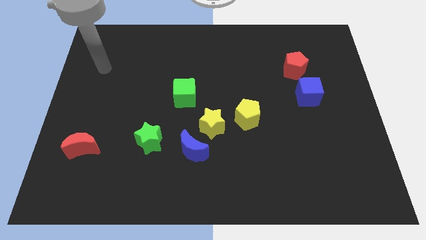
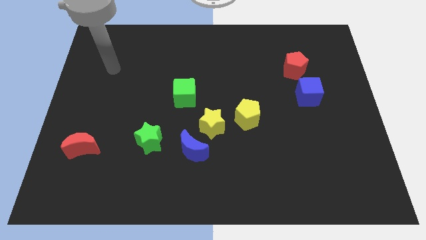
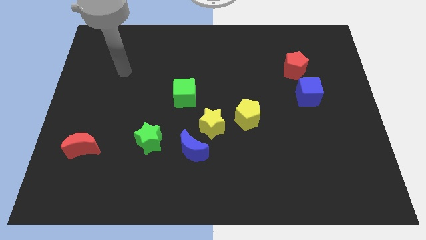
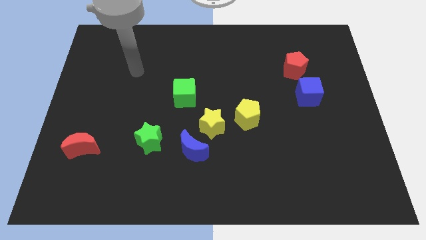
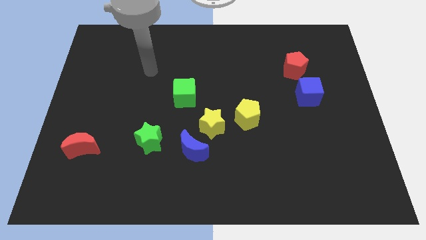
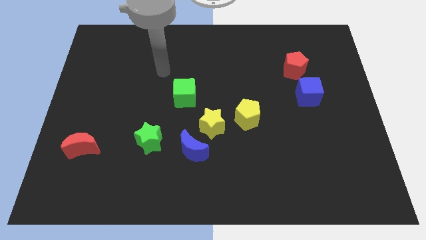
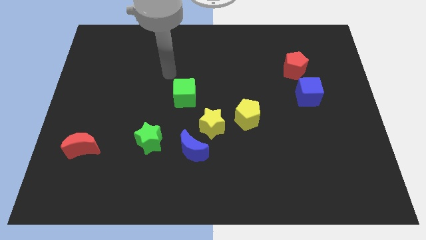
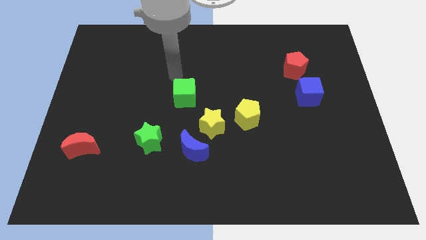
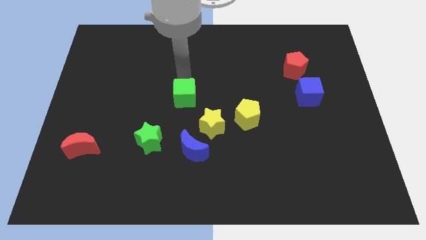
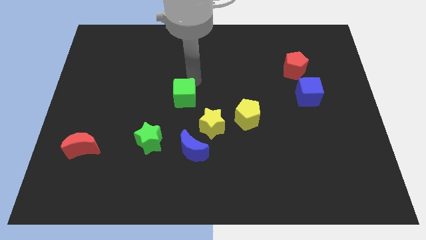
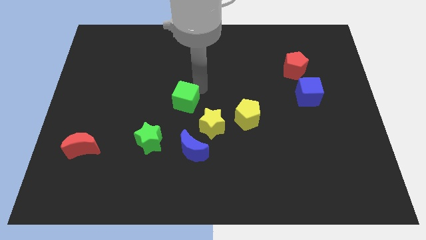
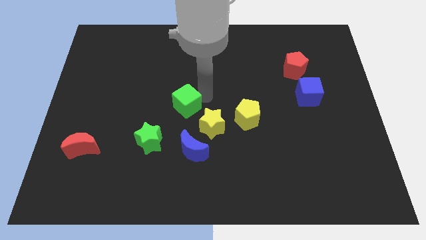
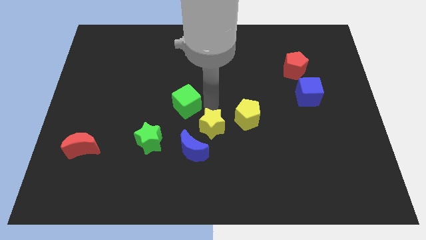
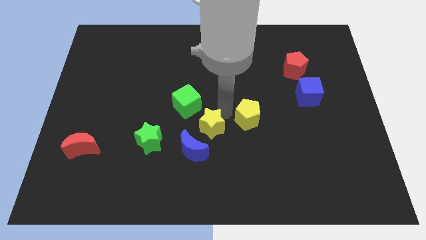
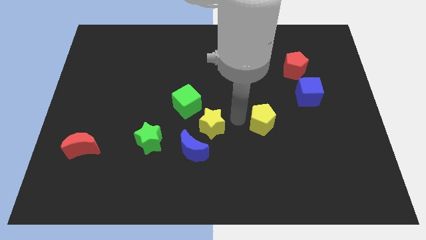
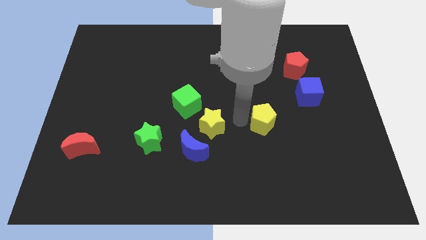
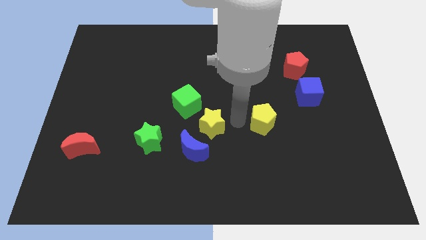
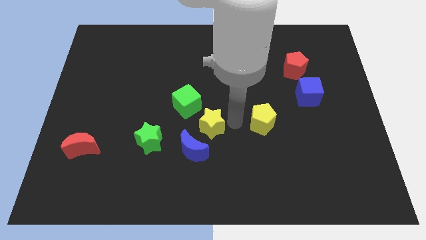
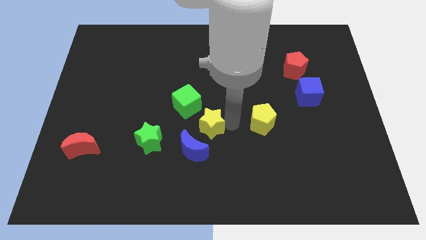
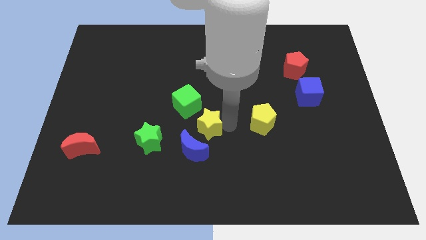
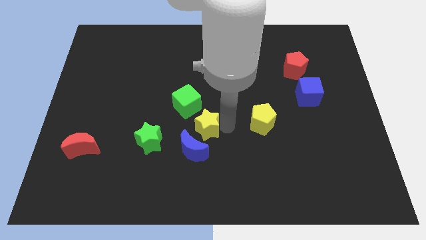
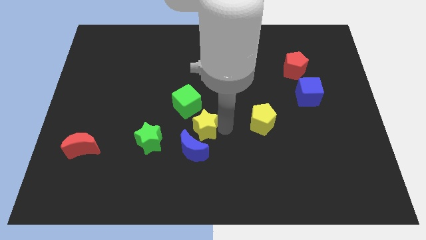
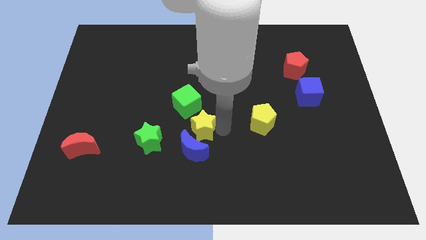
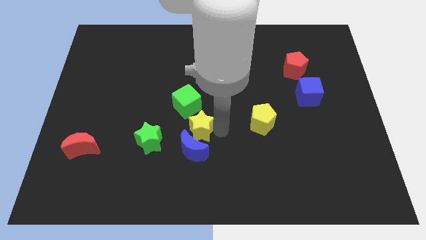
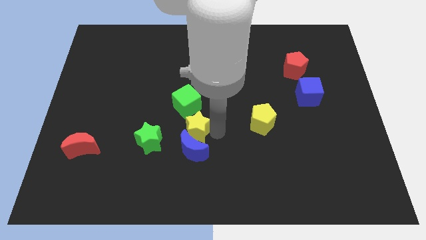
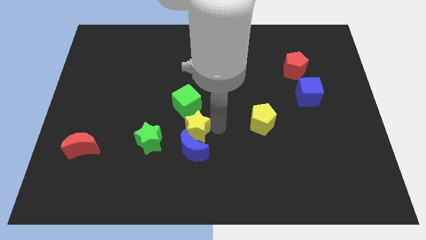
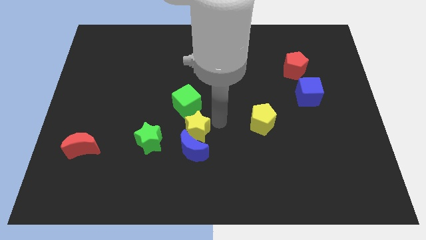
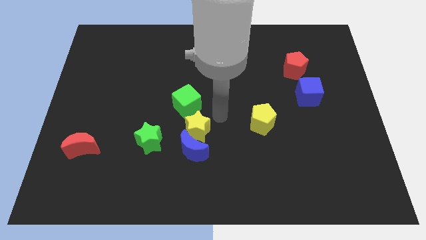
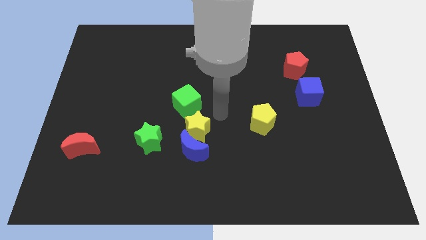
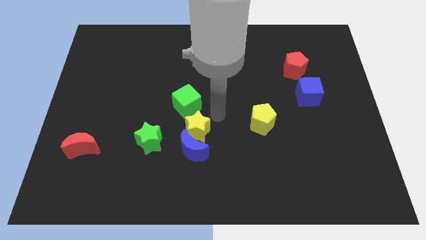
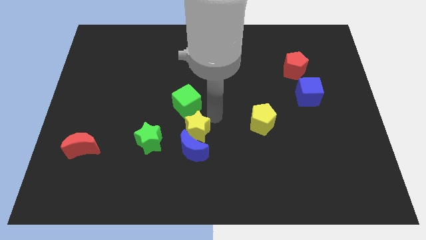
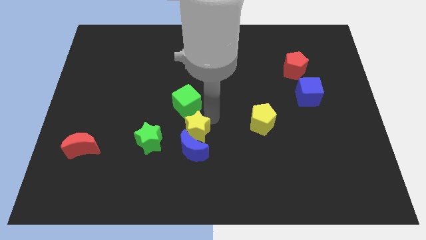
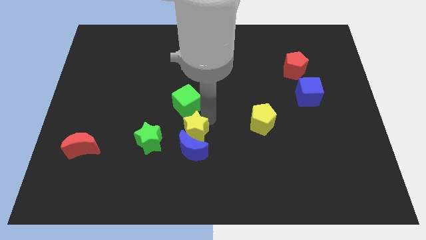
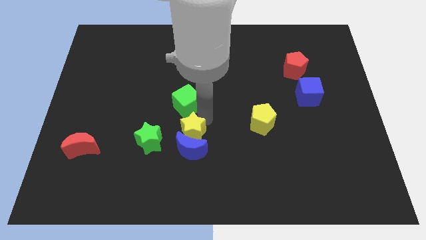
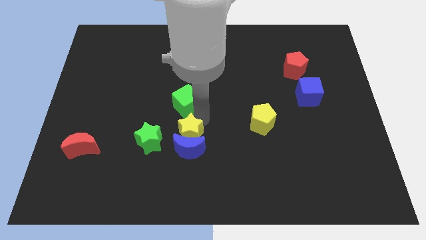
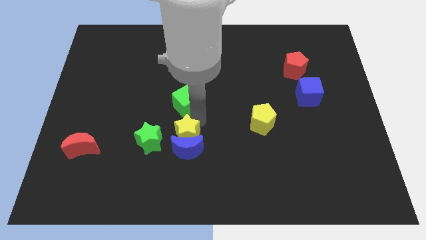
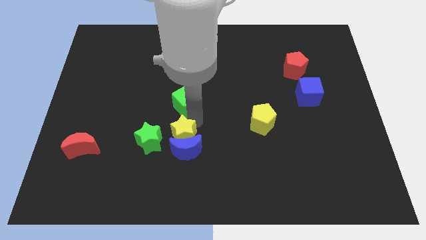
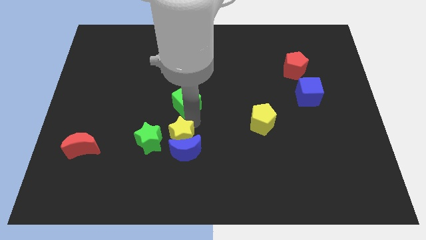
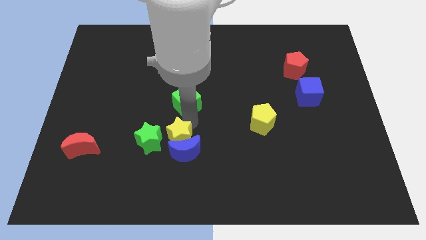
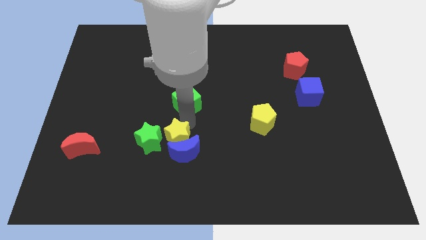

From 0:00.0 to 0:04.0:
slide the yellow star downwards and to the left diagonally a little

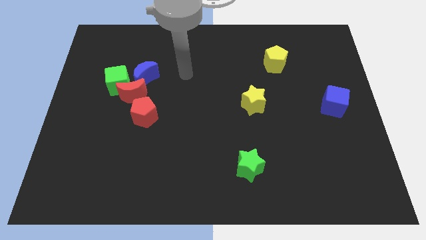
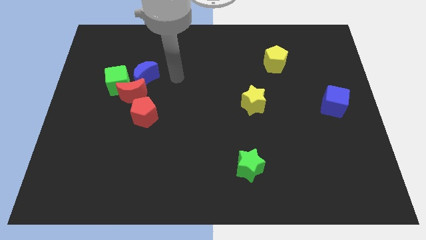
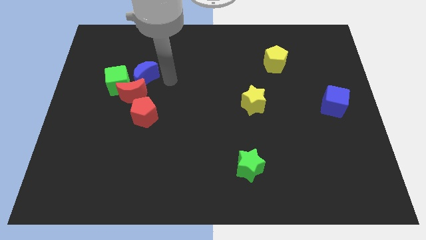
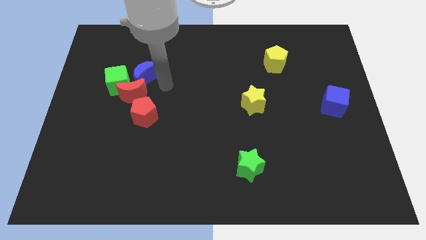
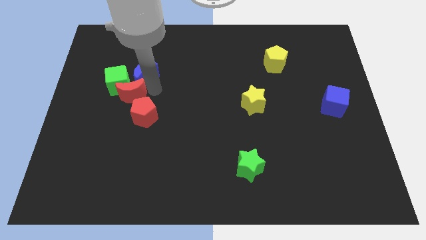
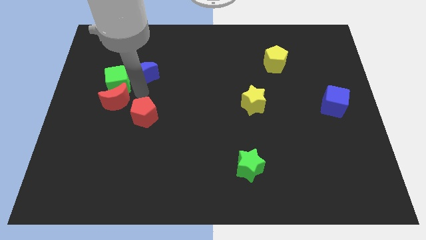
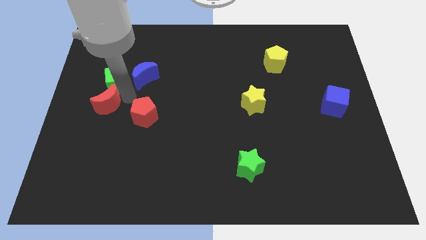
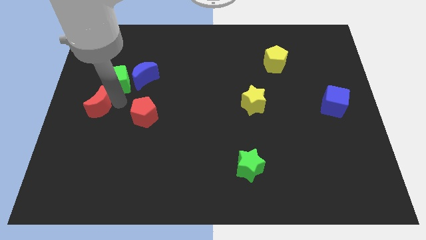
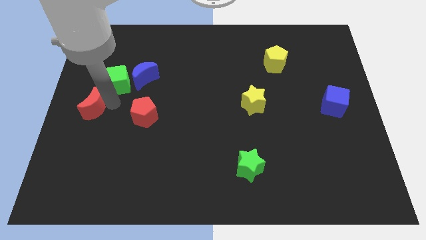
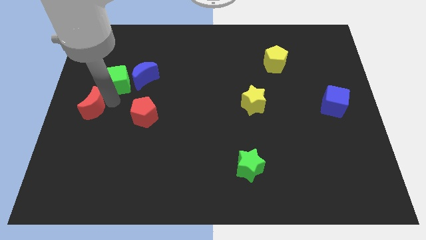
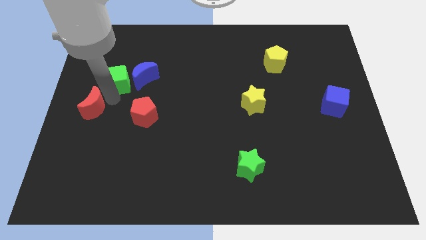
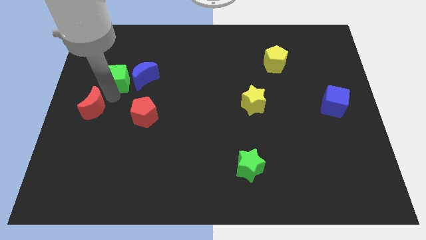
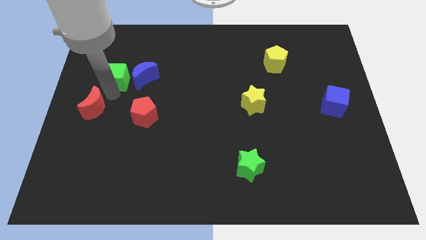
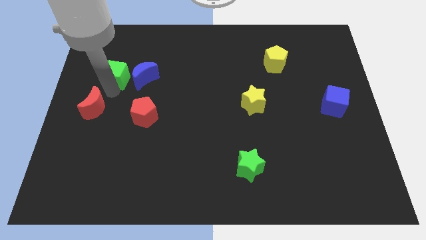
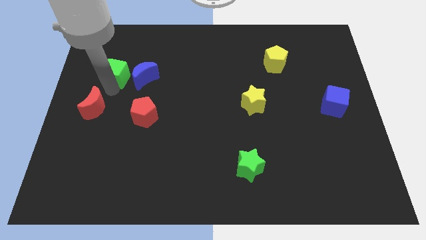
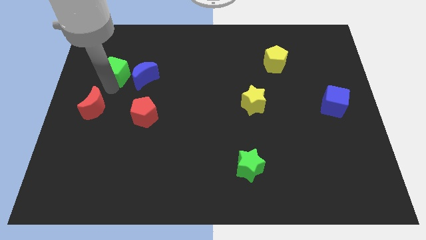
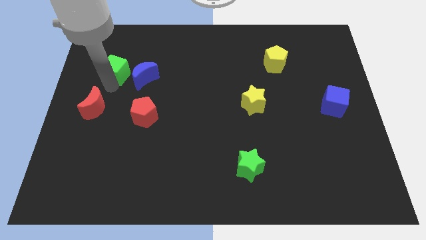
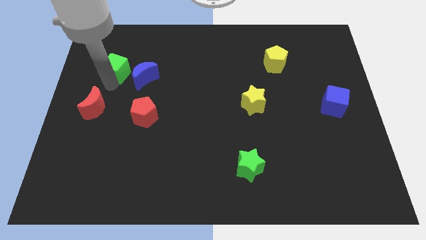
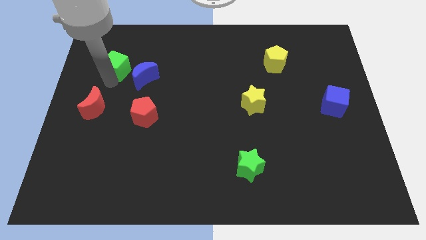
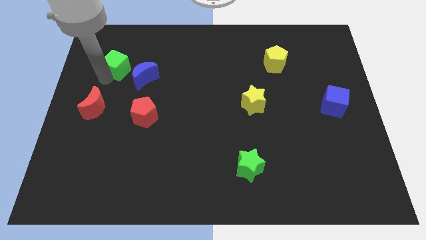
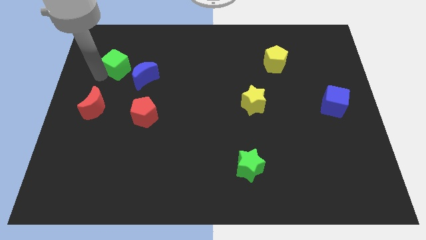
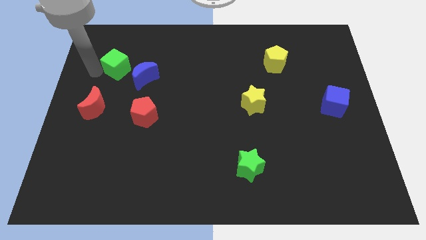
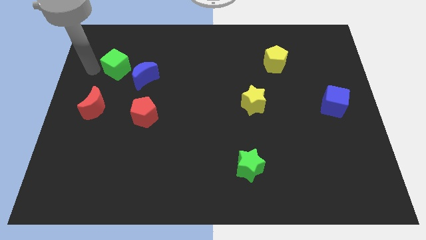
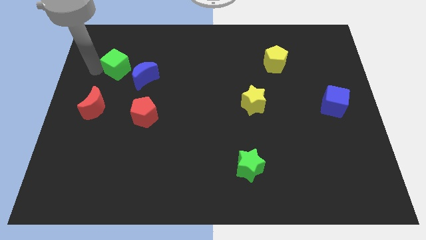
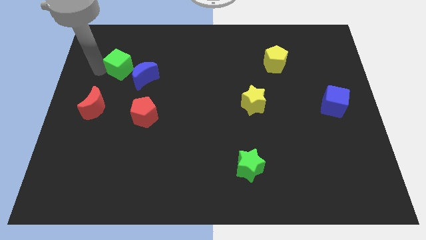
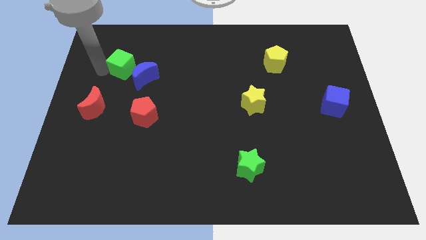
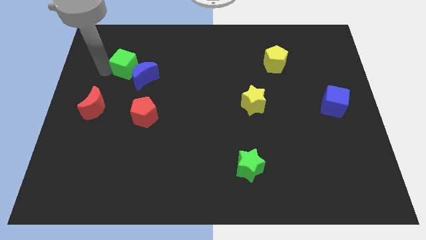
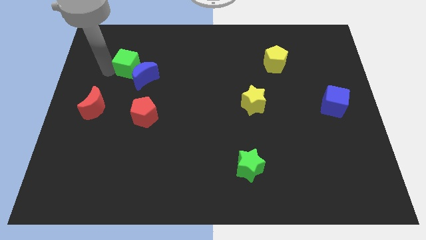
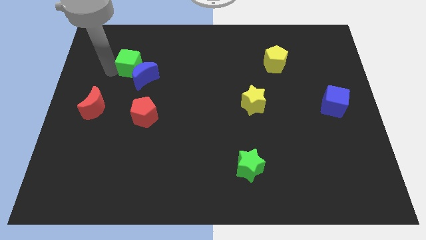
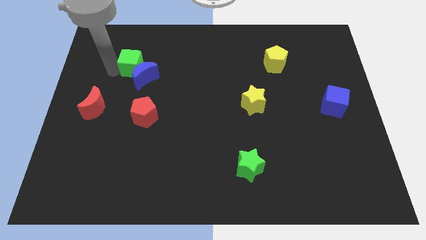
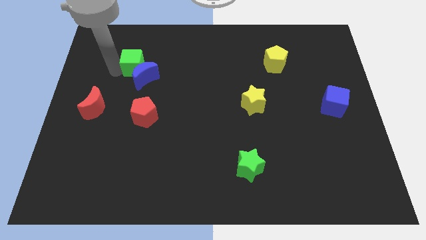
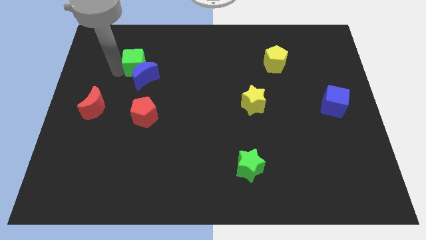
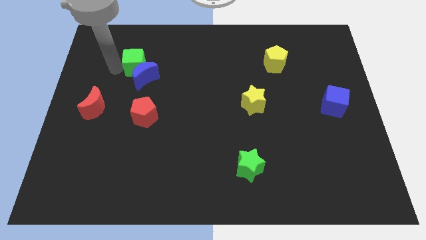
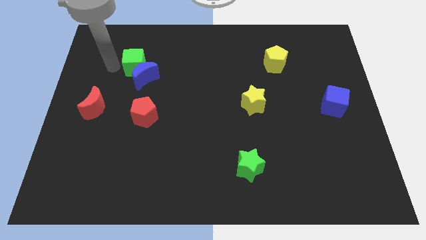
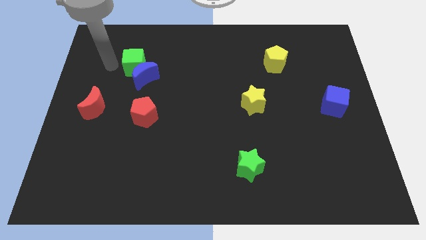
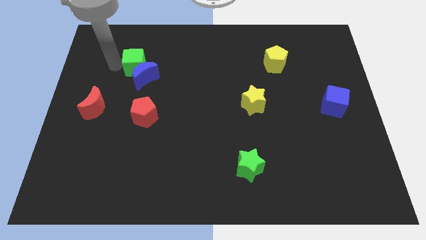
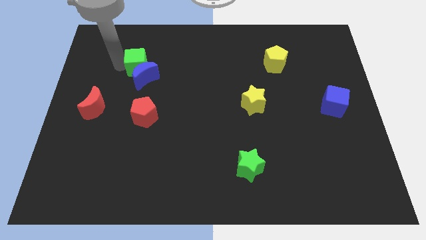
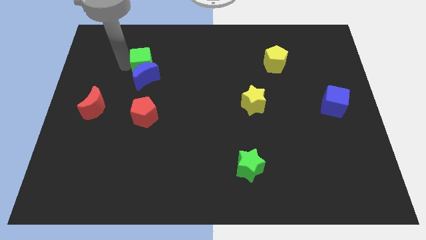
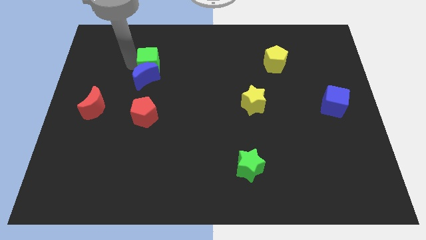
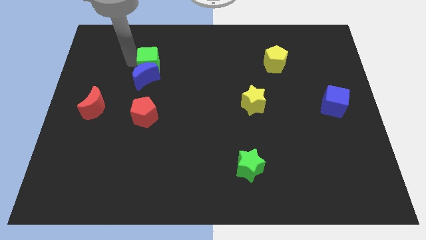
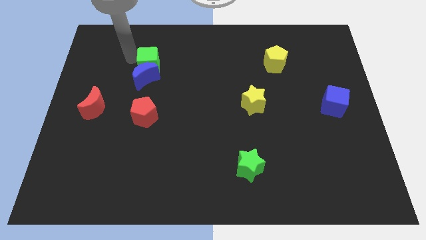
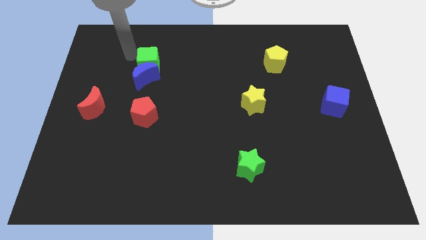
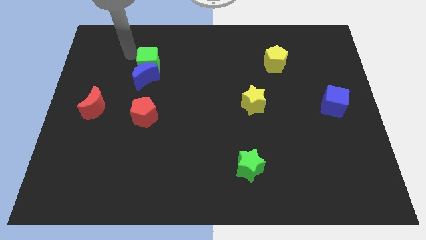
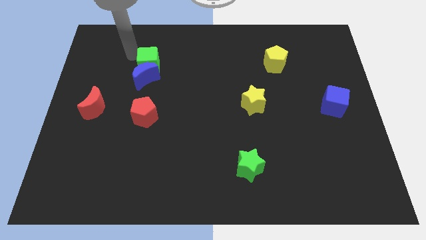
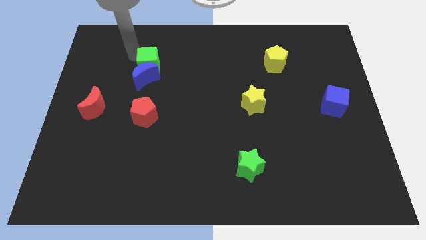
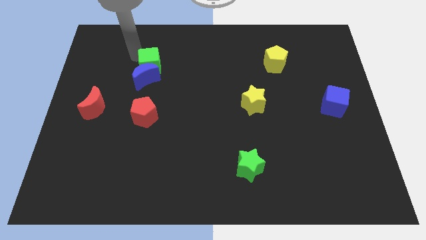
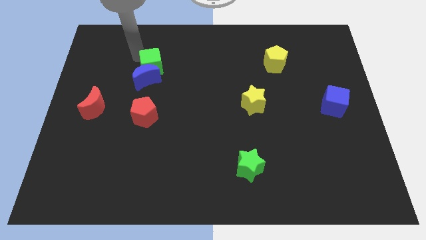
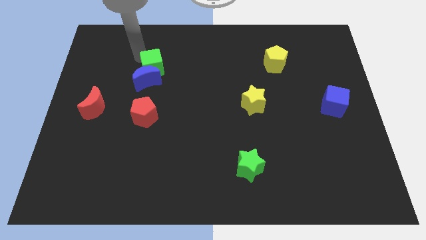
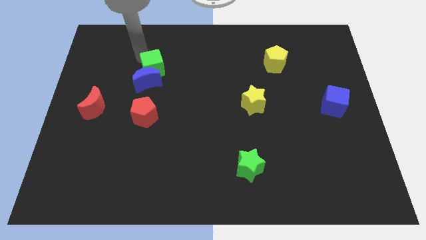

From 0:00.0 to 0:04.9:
slightly slide the green cube to the right
